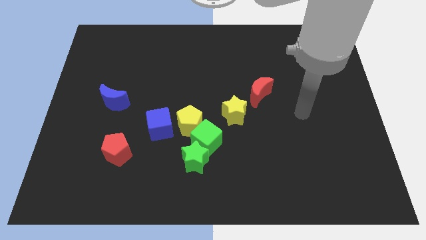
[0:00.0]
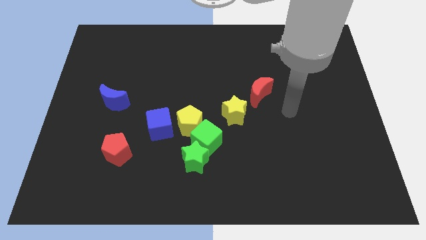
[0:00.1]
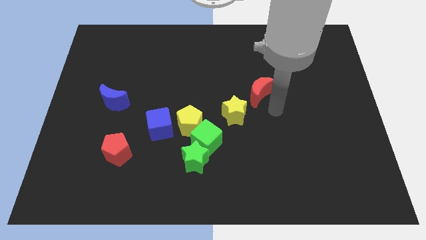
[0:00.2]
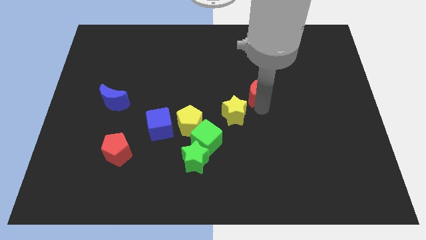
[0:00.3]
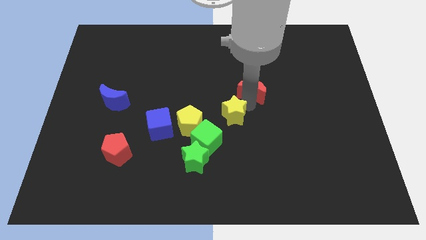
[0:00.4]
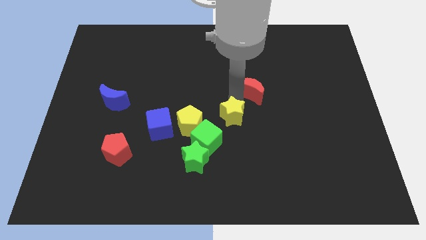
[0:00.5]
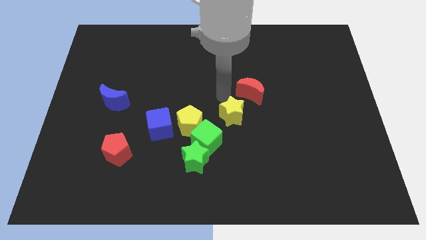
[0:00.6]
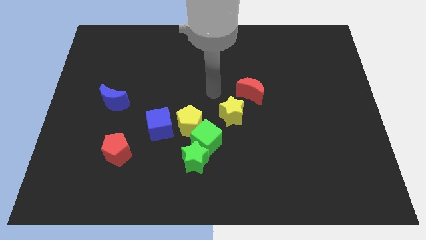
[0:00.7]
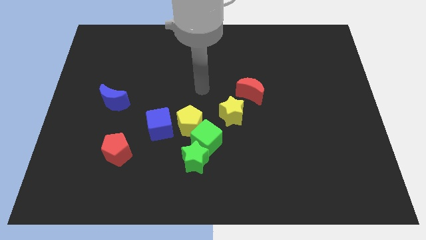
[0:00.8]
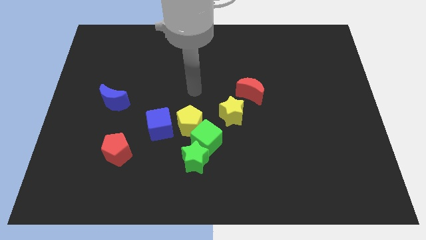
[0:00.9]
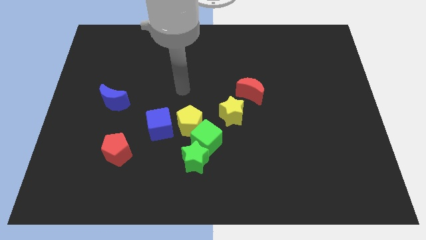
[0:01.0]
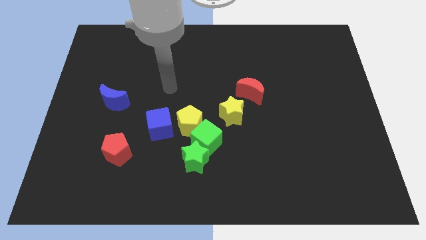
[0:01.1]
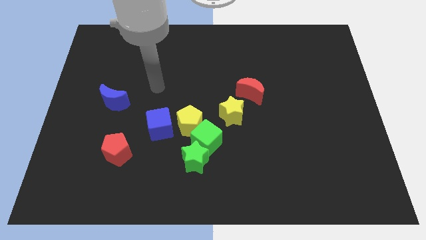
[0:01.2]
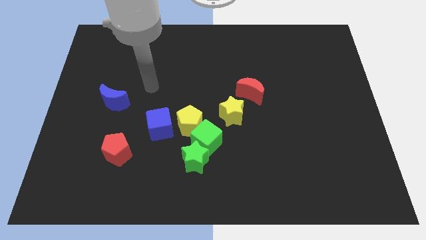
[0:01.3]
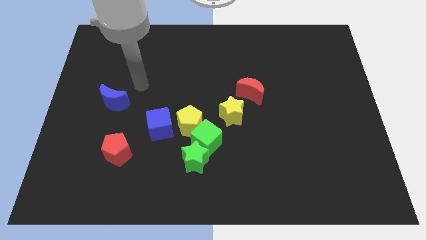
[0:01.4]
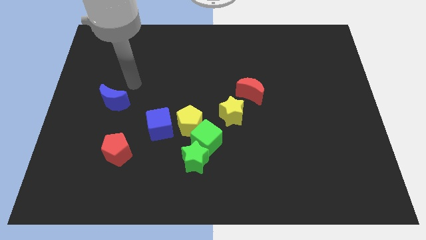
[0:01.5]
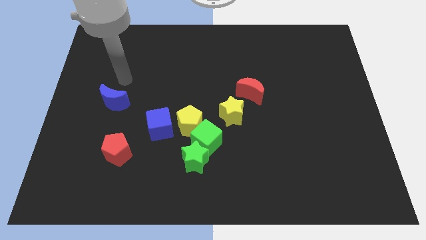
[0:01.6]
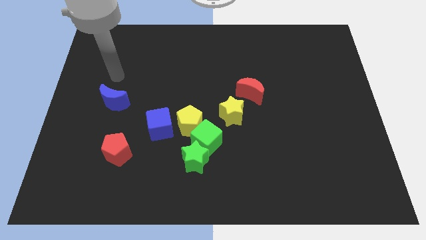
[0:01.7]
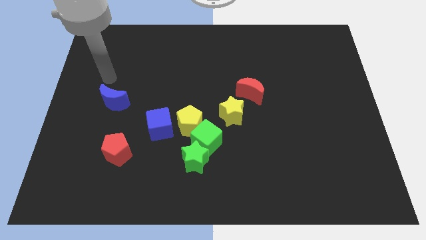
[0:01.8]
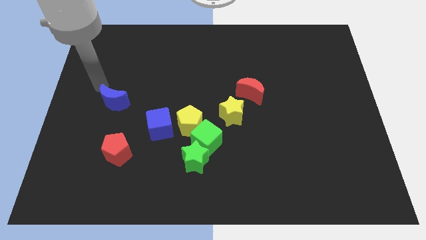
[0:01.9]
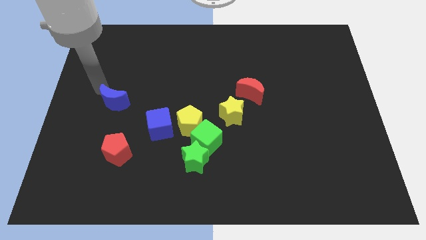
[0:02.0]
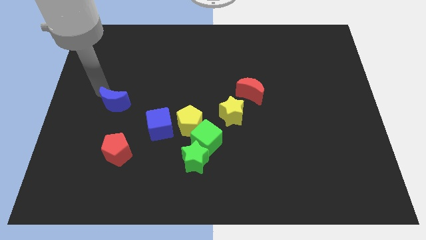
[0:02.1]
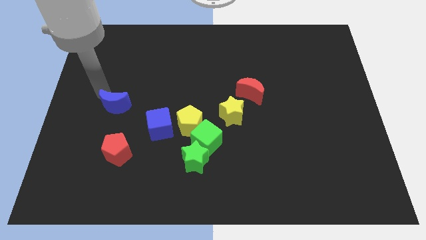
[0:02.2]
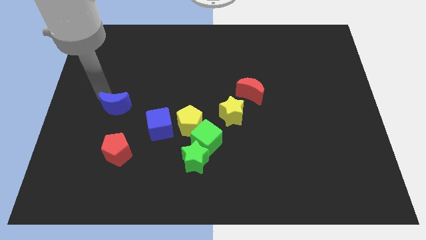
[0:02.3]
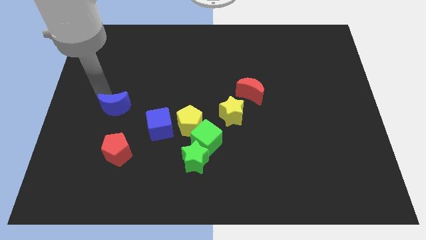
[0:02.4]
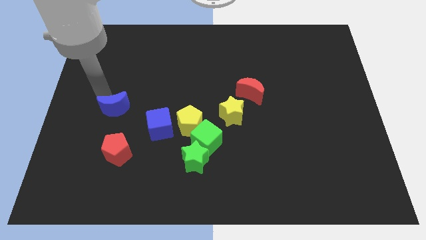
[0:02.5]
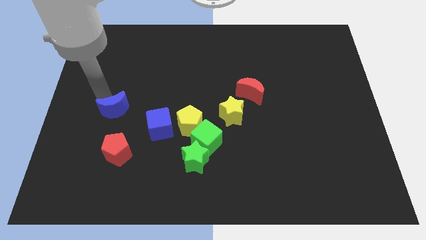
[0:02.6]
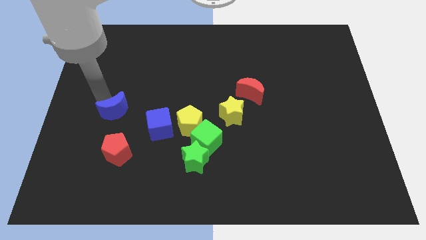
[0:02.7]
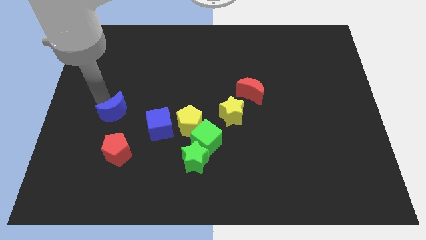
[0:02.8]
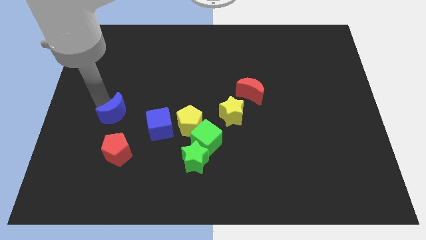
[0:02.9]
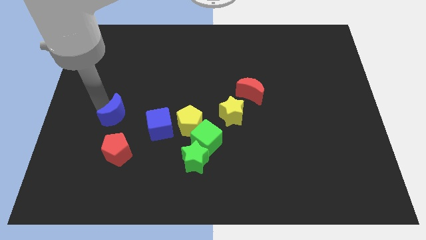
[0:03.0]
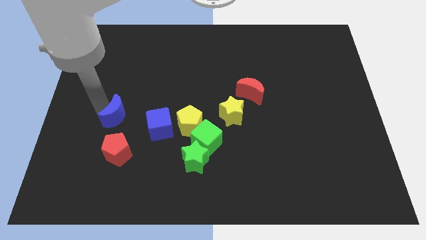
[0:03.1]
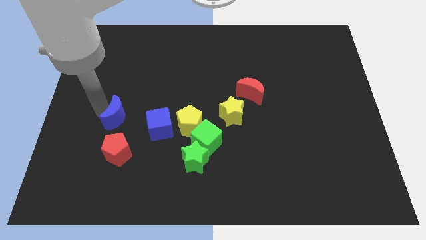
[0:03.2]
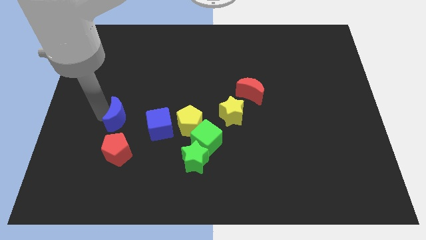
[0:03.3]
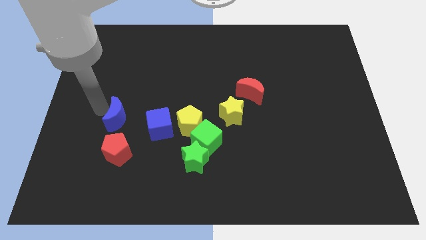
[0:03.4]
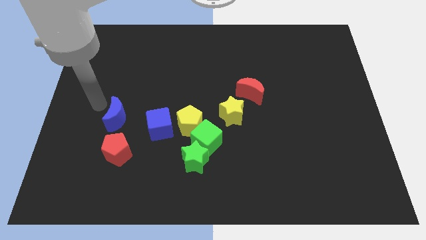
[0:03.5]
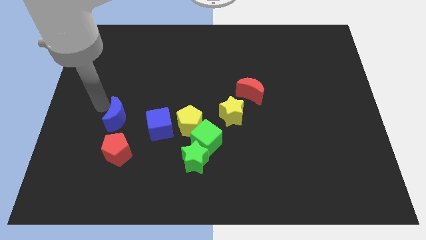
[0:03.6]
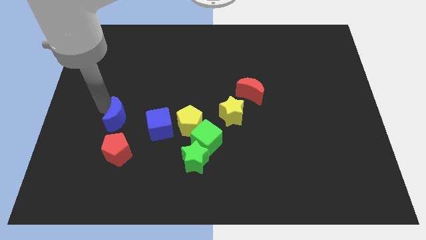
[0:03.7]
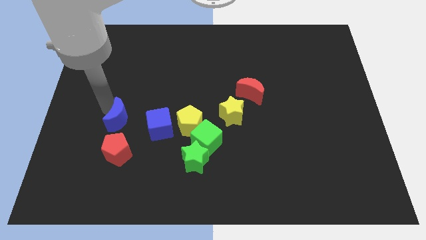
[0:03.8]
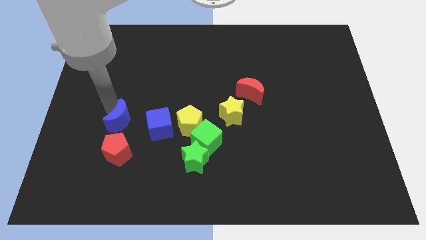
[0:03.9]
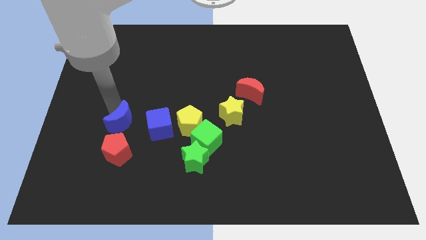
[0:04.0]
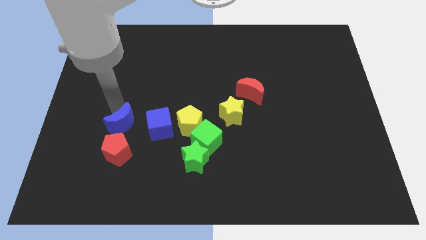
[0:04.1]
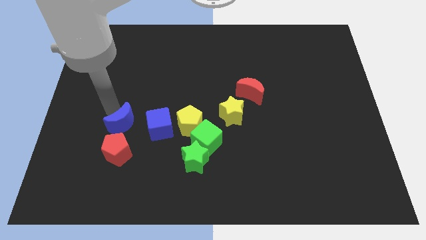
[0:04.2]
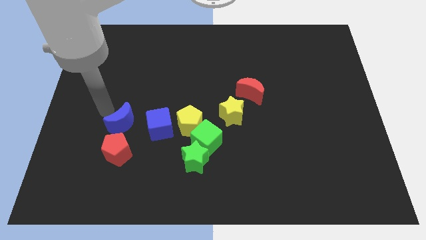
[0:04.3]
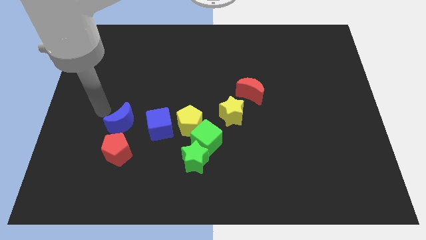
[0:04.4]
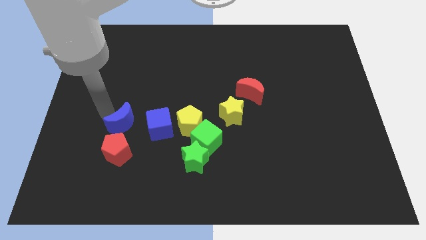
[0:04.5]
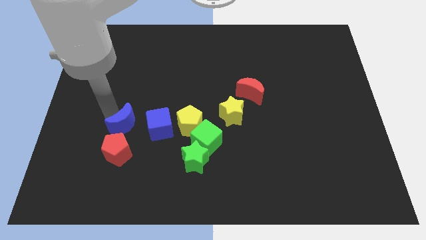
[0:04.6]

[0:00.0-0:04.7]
slide the blue moon a little down and then to the right

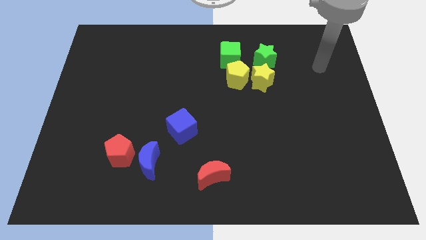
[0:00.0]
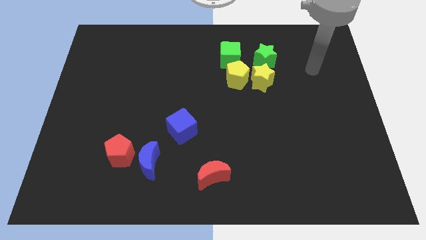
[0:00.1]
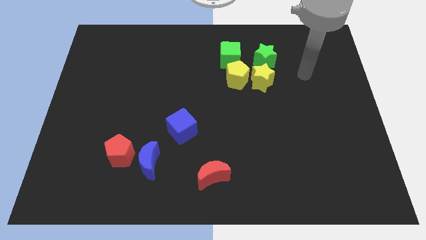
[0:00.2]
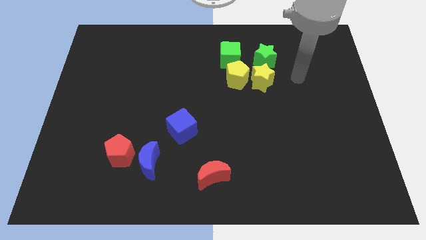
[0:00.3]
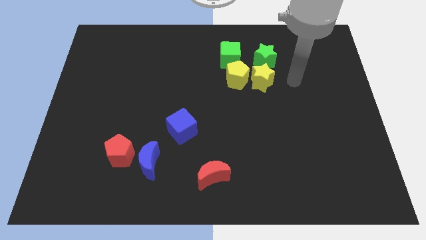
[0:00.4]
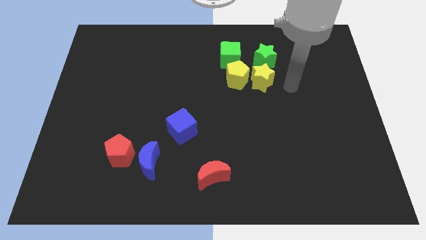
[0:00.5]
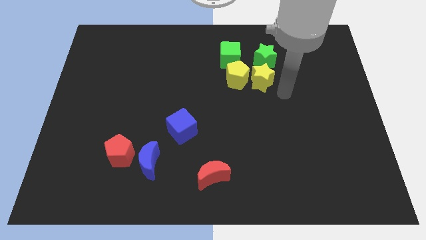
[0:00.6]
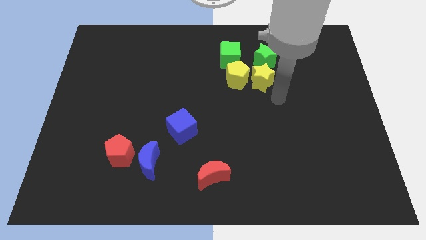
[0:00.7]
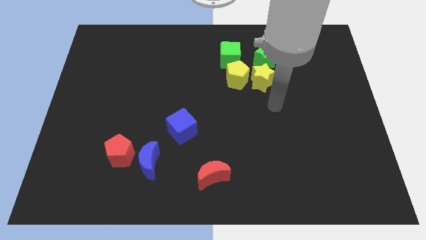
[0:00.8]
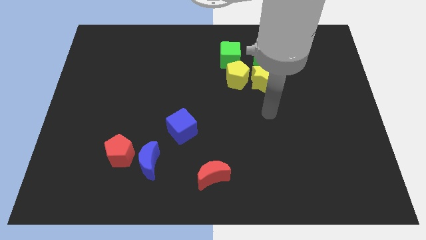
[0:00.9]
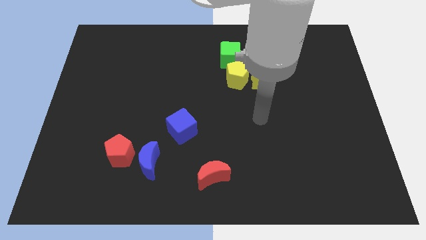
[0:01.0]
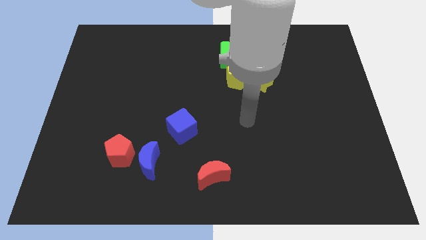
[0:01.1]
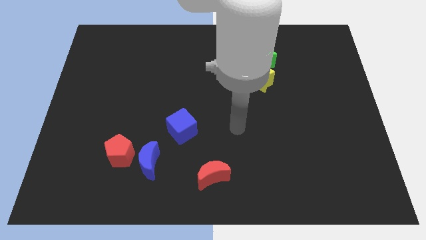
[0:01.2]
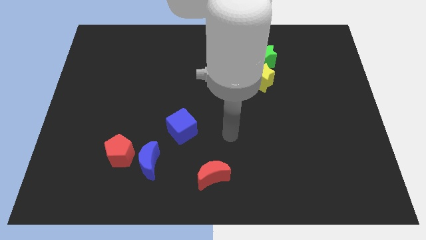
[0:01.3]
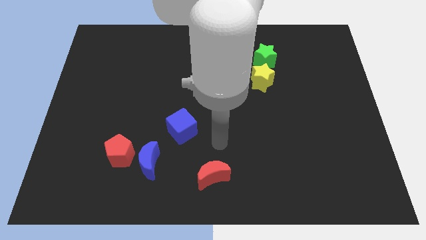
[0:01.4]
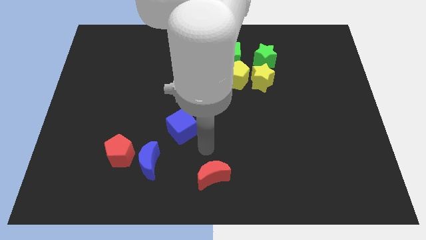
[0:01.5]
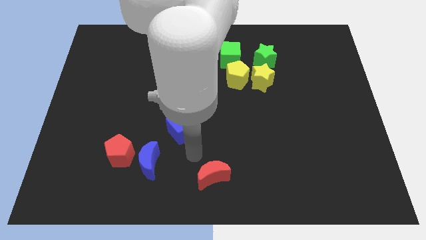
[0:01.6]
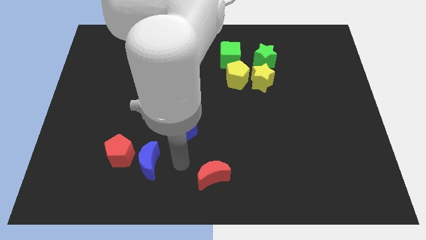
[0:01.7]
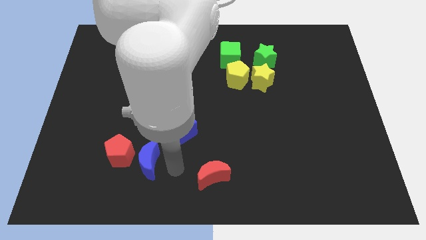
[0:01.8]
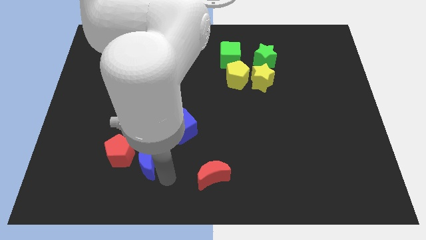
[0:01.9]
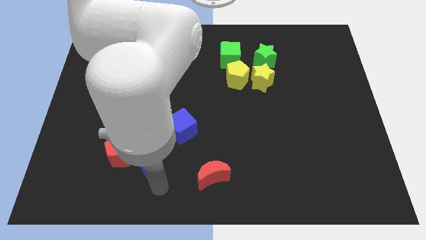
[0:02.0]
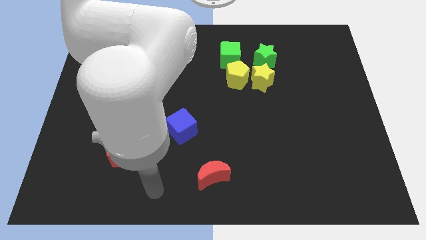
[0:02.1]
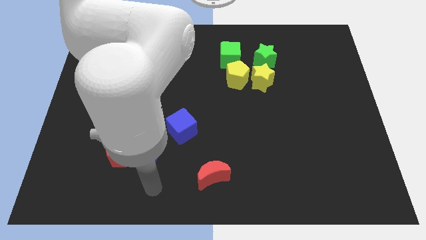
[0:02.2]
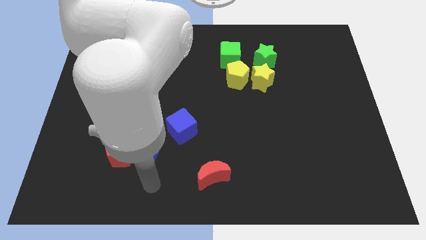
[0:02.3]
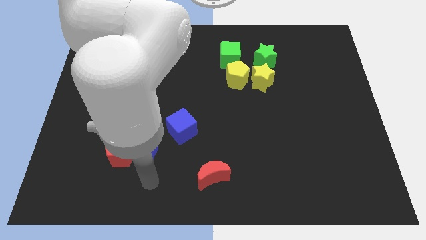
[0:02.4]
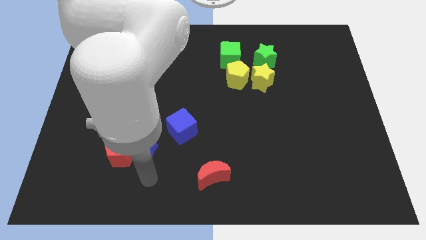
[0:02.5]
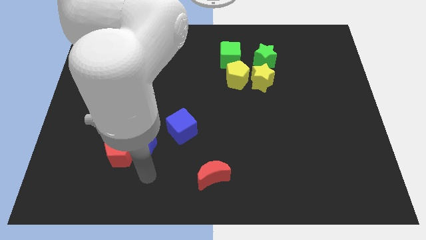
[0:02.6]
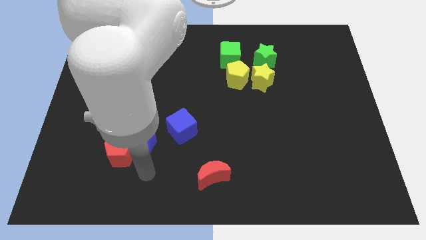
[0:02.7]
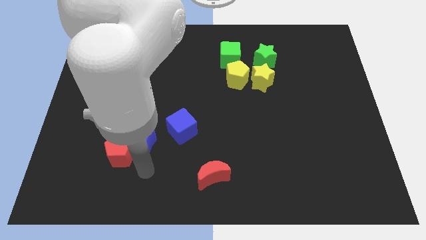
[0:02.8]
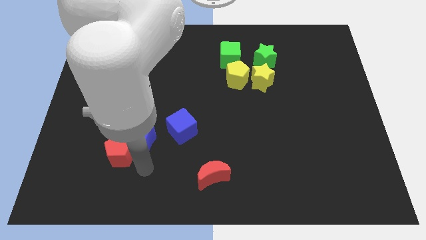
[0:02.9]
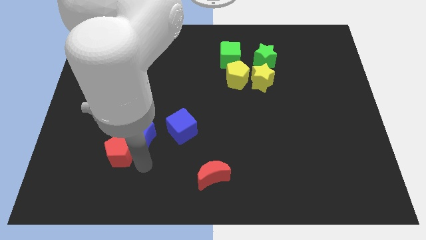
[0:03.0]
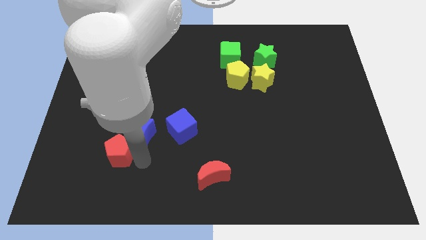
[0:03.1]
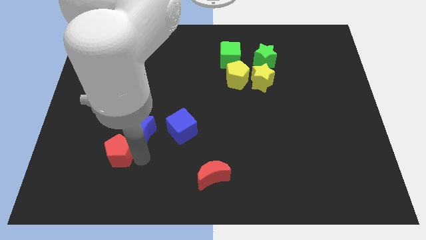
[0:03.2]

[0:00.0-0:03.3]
slightly push the blue moon upwards
